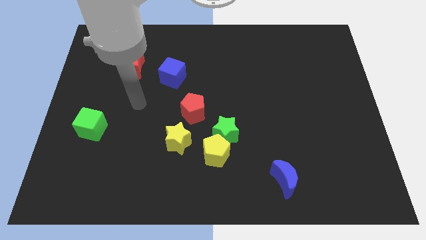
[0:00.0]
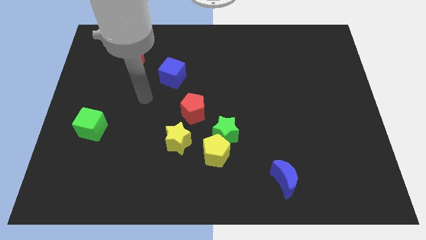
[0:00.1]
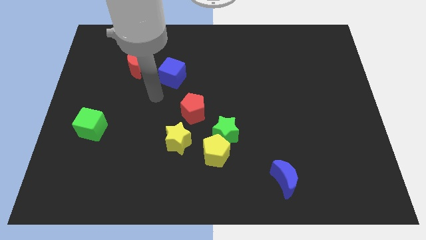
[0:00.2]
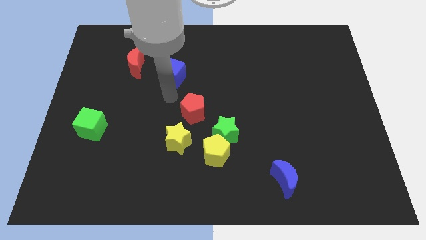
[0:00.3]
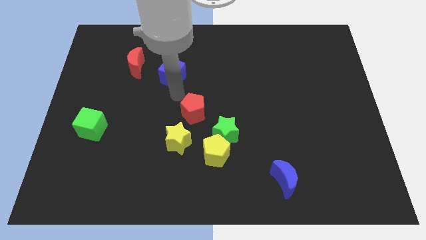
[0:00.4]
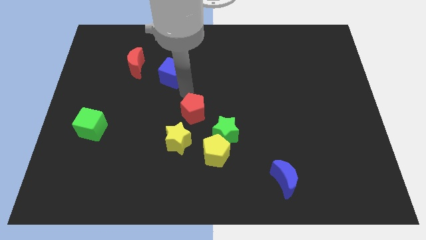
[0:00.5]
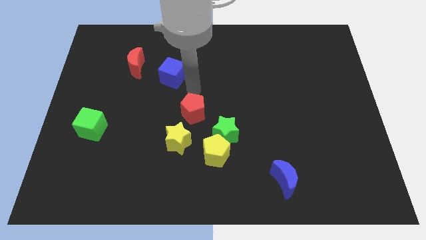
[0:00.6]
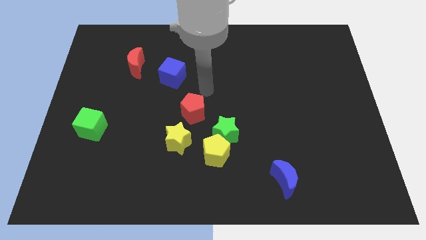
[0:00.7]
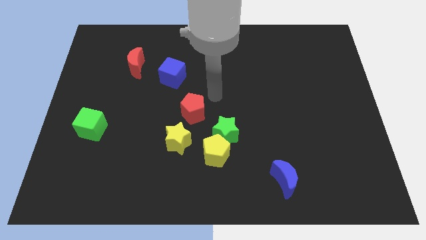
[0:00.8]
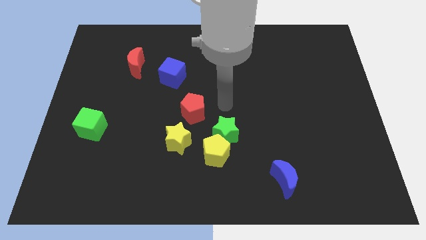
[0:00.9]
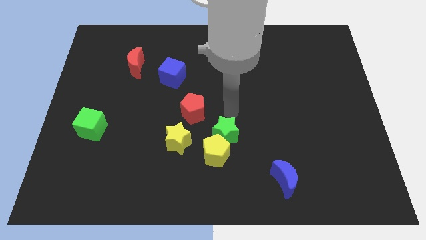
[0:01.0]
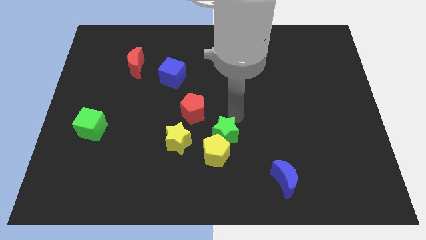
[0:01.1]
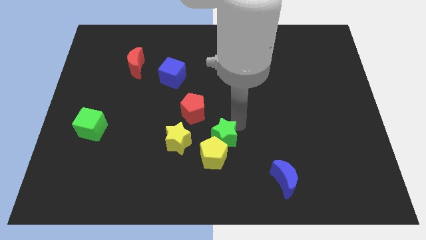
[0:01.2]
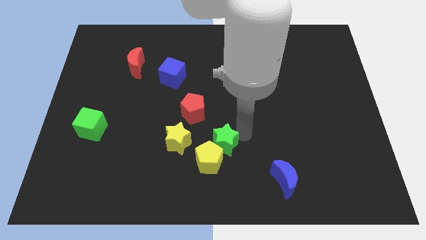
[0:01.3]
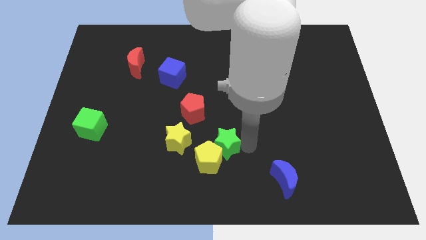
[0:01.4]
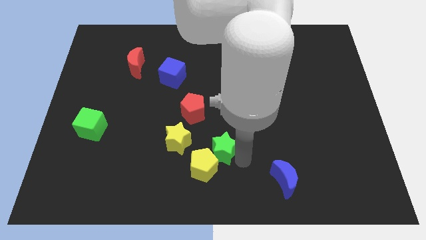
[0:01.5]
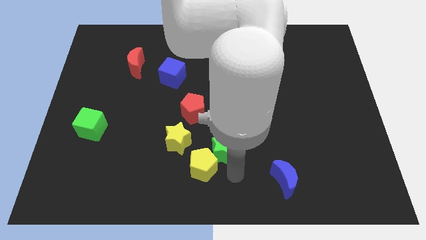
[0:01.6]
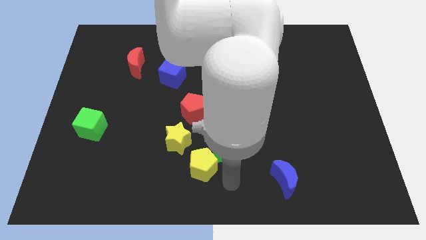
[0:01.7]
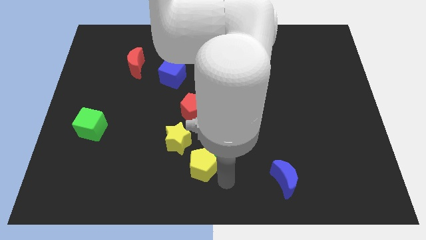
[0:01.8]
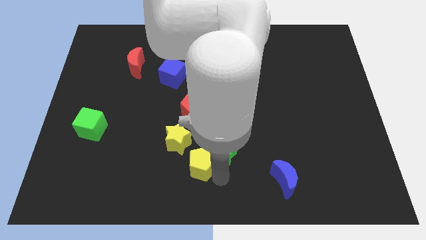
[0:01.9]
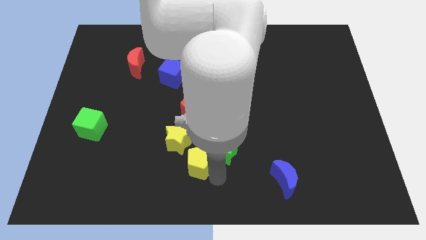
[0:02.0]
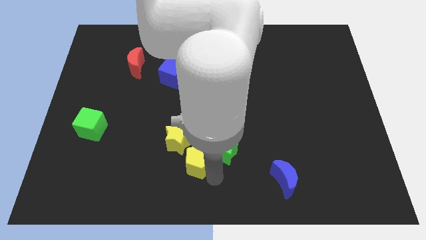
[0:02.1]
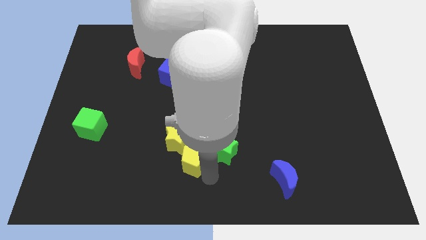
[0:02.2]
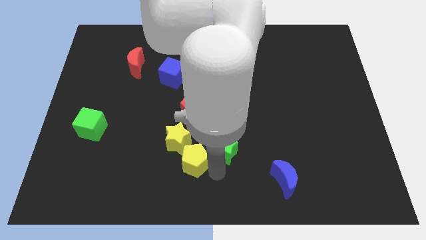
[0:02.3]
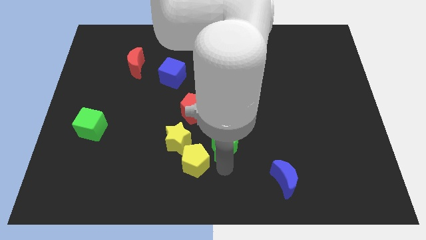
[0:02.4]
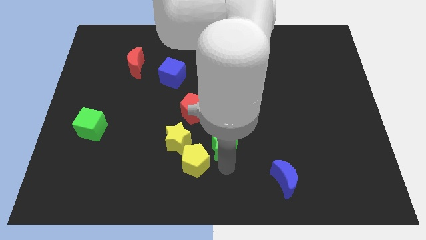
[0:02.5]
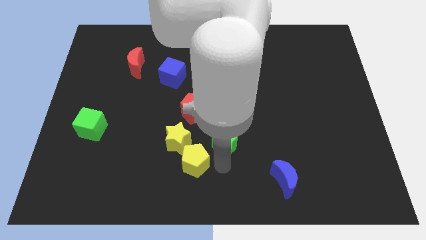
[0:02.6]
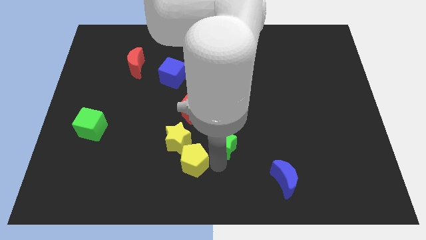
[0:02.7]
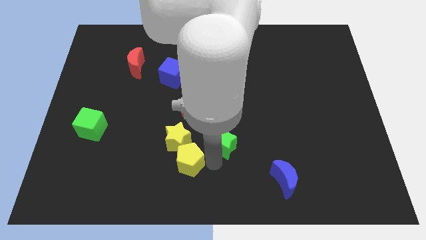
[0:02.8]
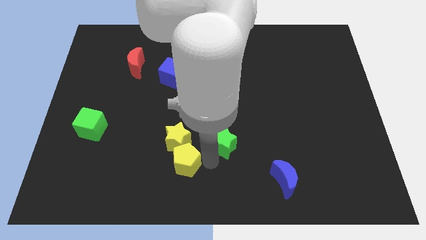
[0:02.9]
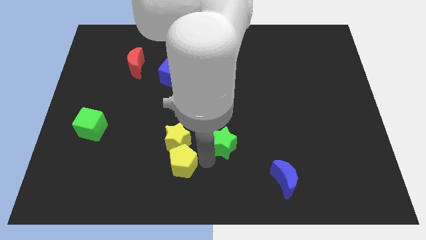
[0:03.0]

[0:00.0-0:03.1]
slightly slide the yellow pentagon left

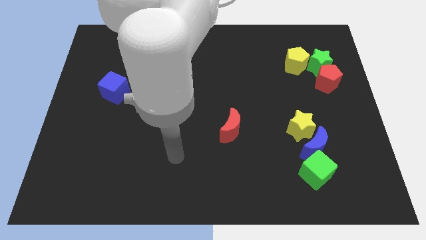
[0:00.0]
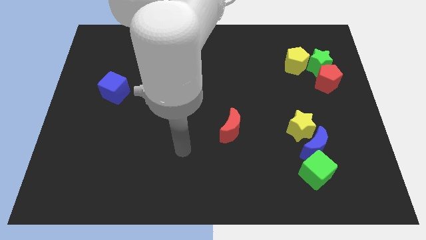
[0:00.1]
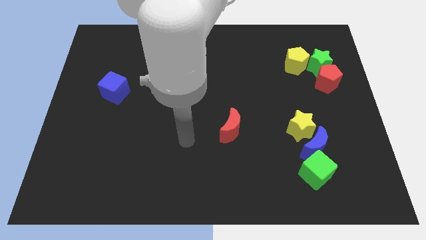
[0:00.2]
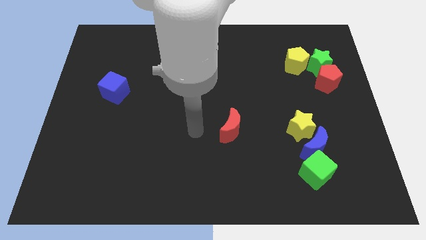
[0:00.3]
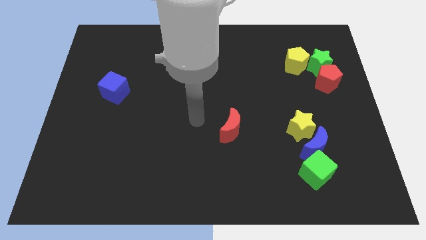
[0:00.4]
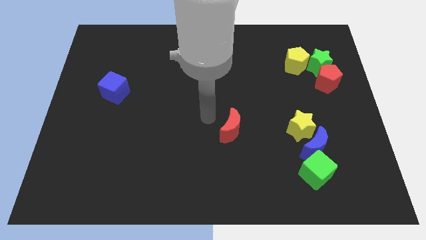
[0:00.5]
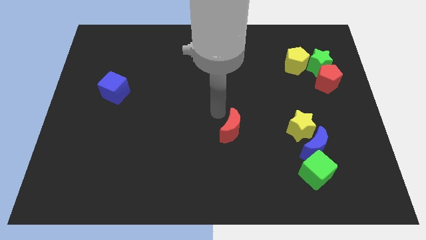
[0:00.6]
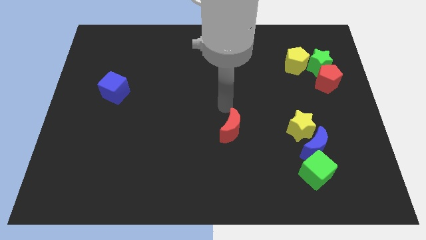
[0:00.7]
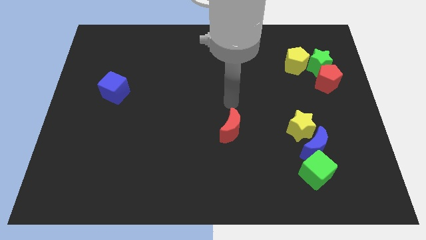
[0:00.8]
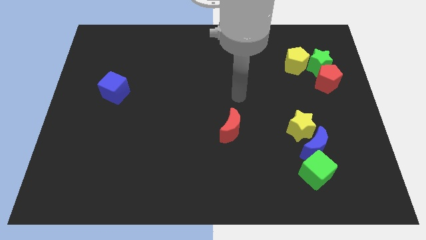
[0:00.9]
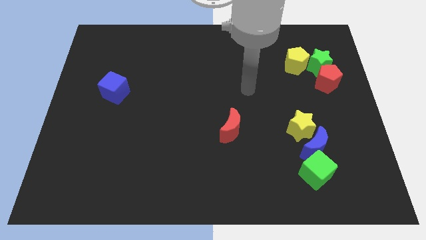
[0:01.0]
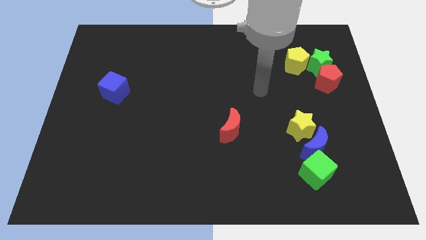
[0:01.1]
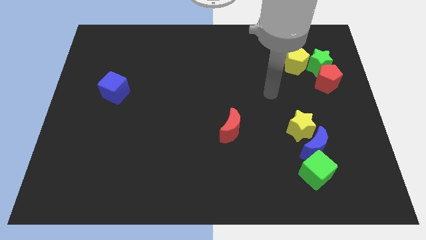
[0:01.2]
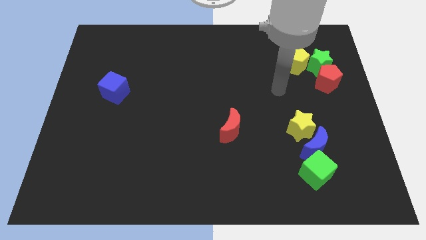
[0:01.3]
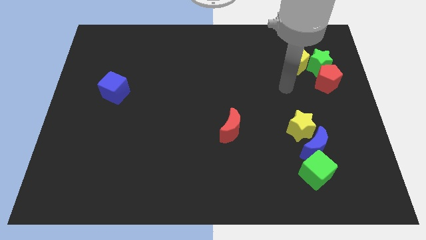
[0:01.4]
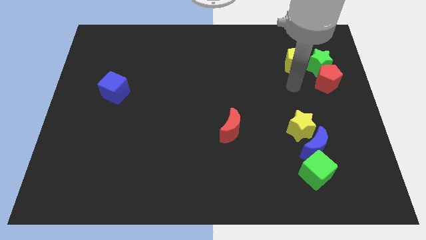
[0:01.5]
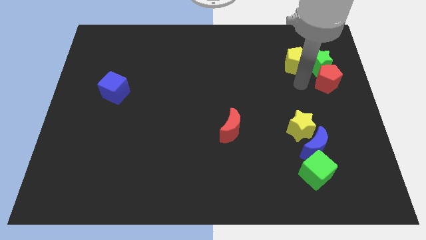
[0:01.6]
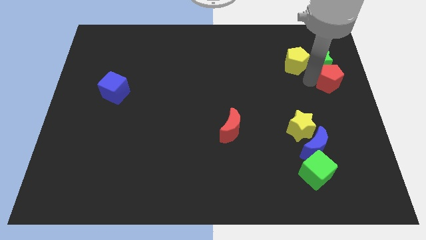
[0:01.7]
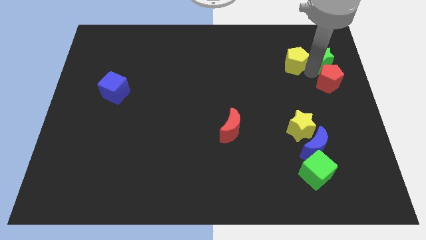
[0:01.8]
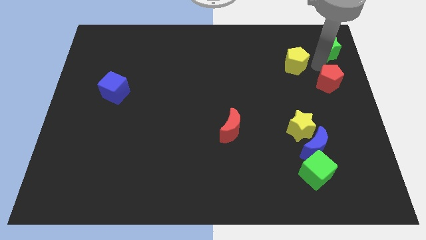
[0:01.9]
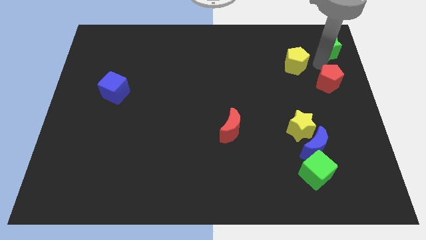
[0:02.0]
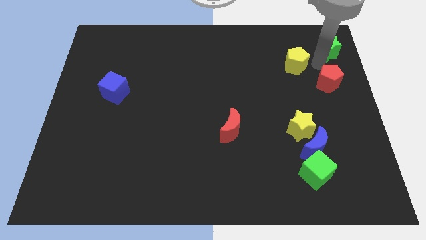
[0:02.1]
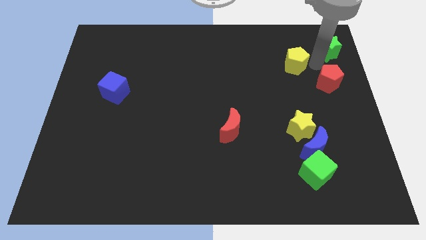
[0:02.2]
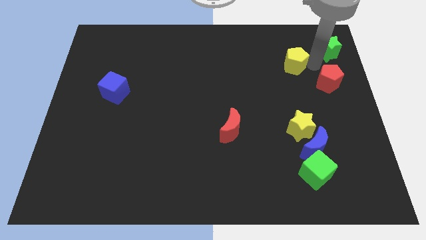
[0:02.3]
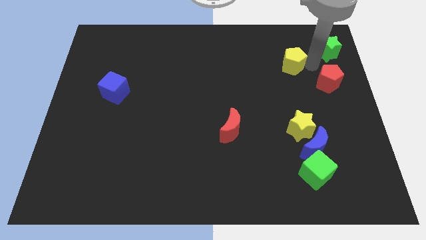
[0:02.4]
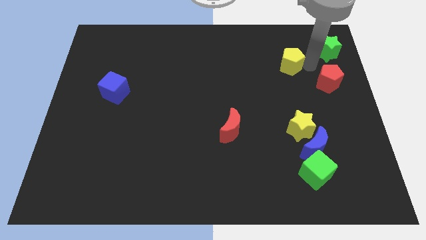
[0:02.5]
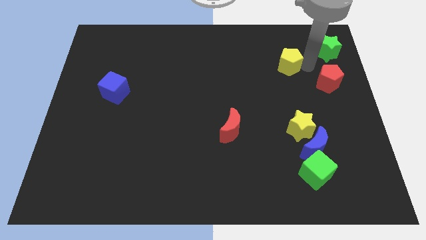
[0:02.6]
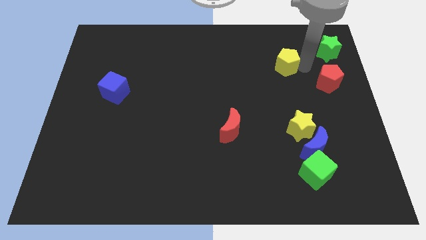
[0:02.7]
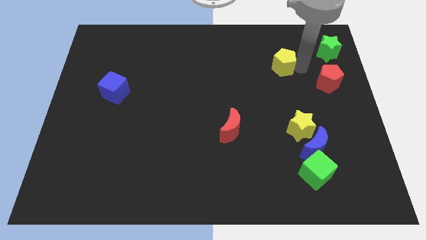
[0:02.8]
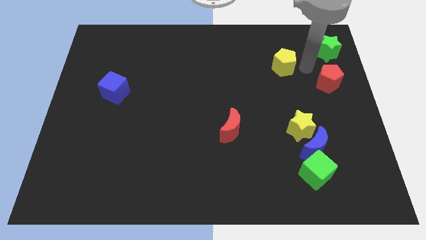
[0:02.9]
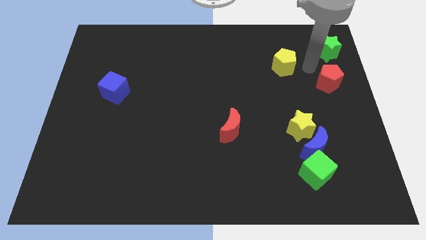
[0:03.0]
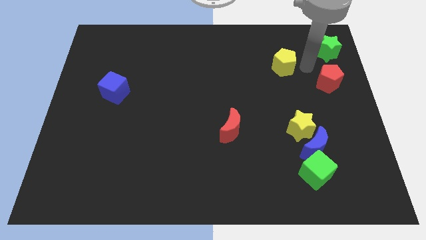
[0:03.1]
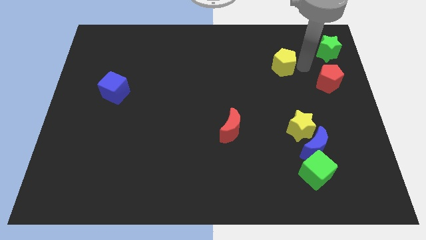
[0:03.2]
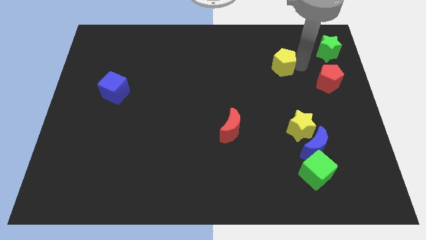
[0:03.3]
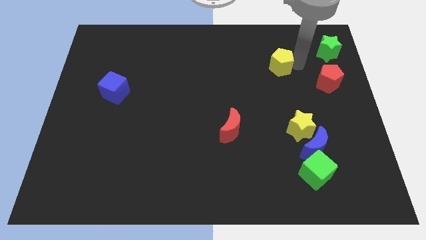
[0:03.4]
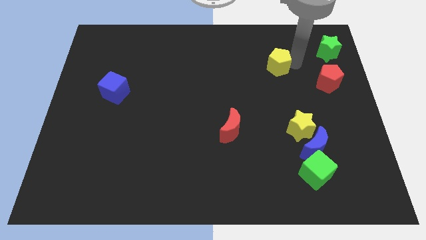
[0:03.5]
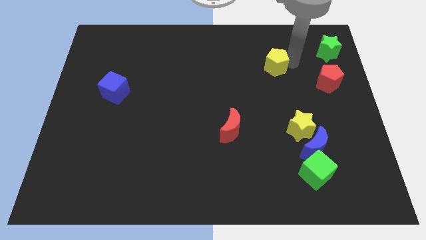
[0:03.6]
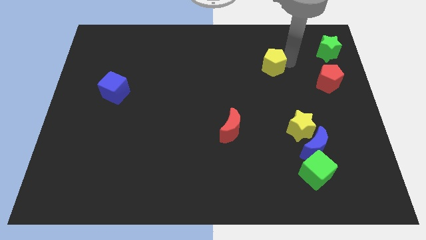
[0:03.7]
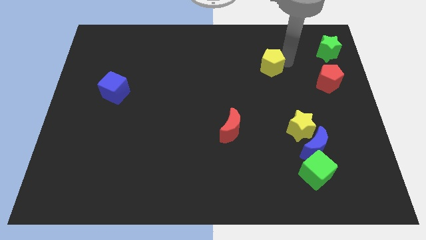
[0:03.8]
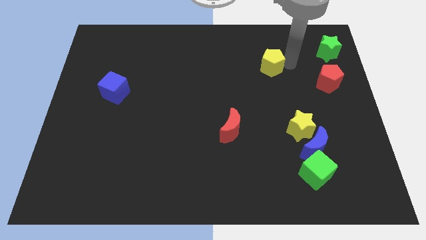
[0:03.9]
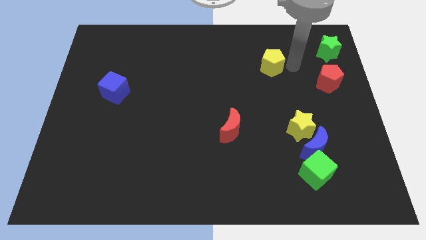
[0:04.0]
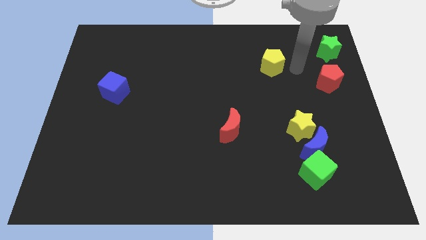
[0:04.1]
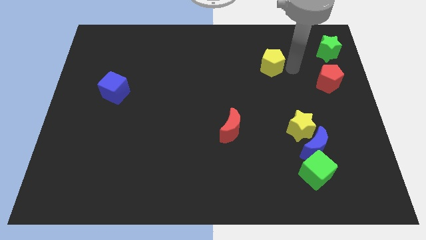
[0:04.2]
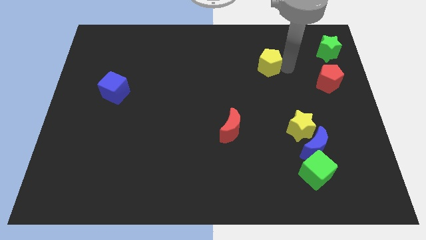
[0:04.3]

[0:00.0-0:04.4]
push the yellow pentagon a little to the left

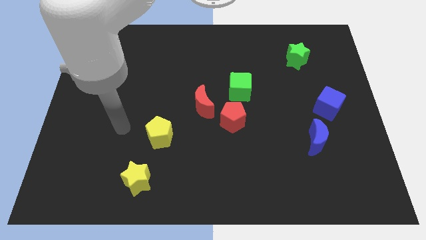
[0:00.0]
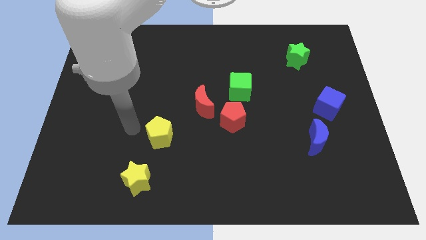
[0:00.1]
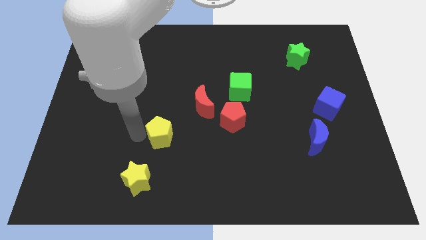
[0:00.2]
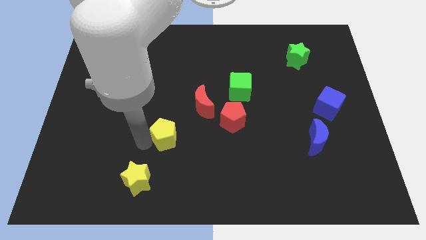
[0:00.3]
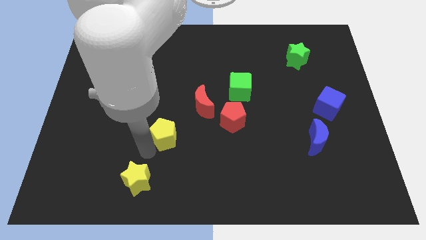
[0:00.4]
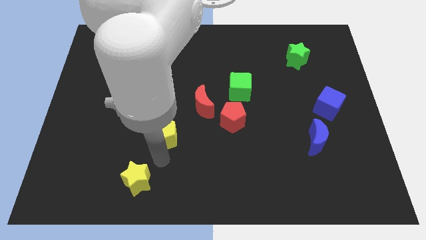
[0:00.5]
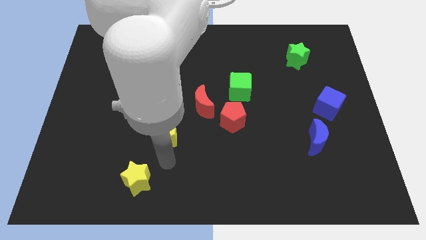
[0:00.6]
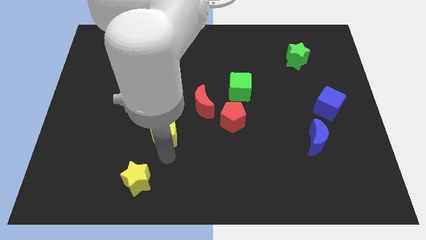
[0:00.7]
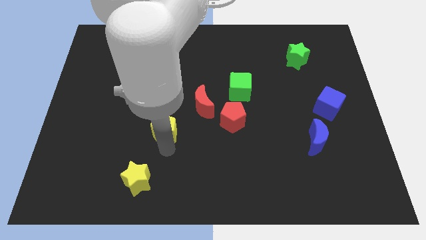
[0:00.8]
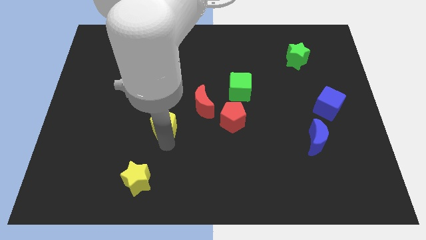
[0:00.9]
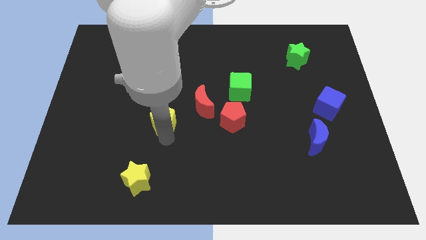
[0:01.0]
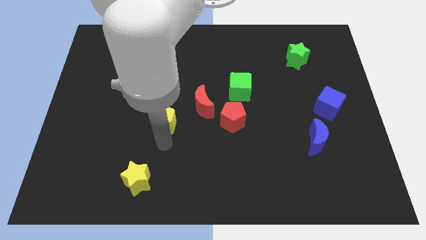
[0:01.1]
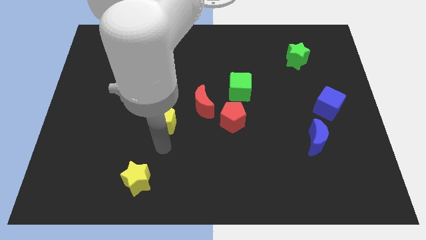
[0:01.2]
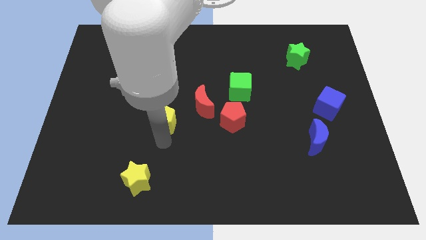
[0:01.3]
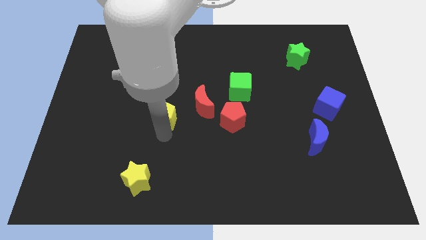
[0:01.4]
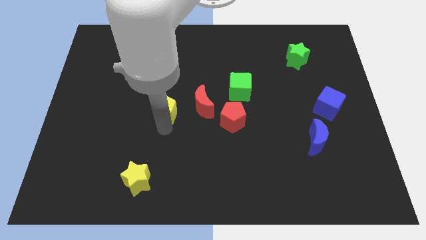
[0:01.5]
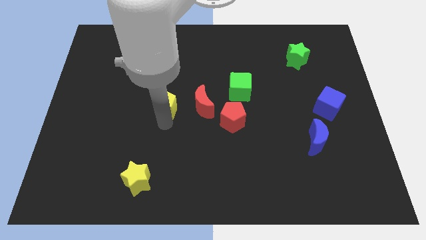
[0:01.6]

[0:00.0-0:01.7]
slightly push the yellow pentagon upwards
